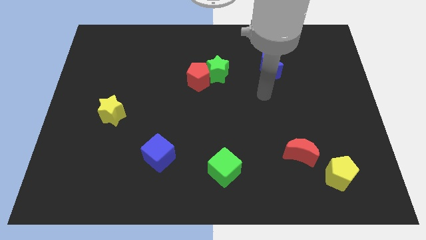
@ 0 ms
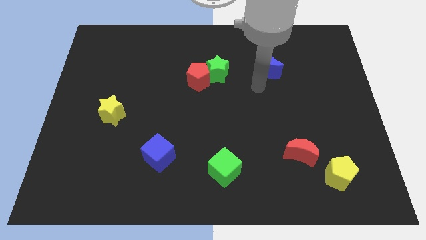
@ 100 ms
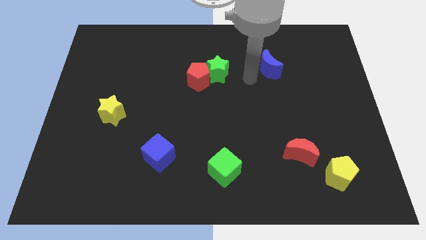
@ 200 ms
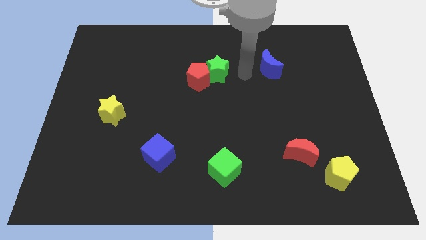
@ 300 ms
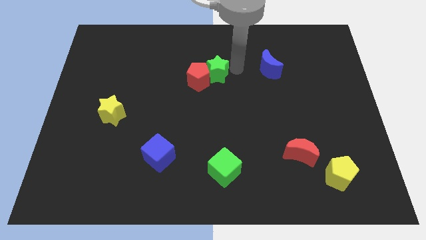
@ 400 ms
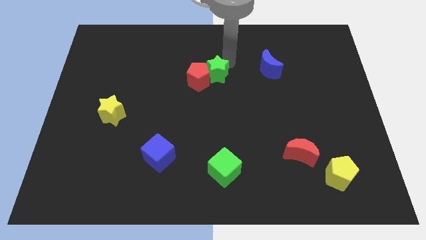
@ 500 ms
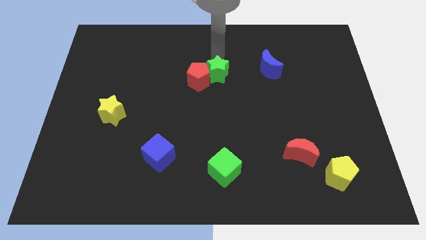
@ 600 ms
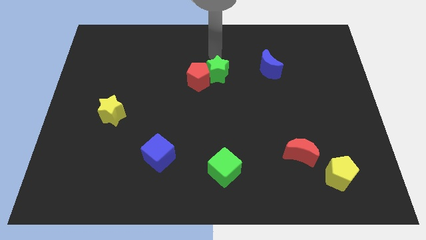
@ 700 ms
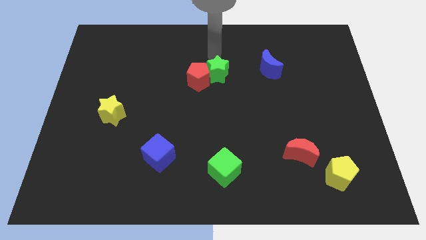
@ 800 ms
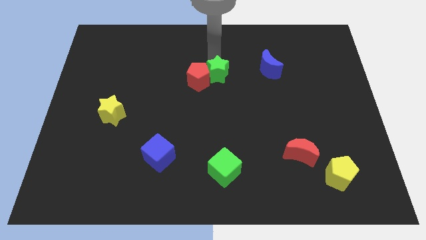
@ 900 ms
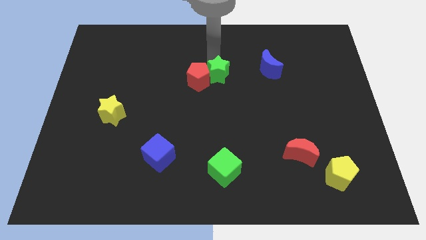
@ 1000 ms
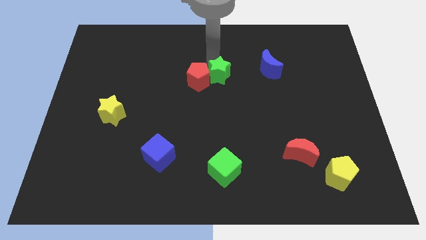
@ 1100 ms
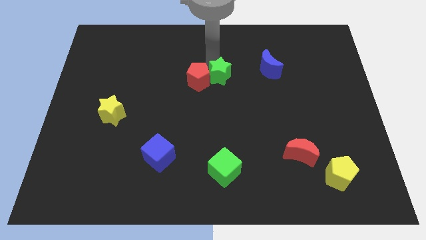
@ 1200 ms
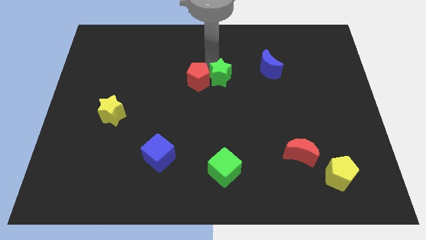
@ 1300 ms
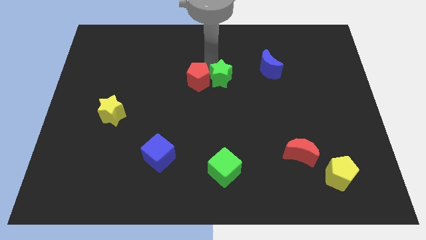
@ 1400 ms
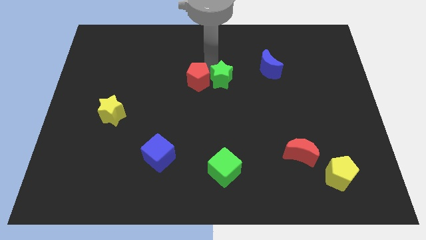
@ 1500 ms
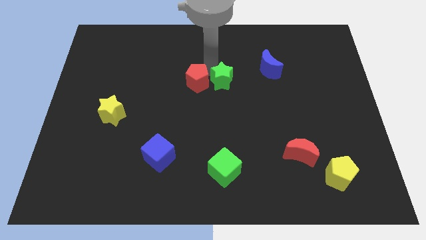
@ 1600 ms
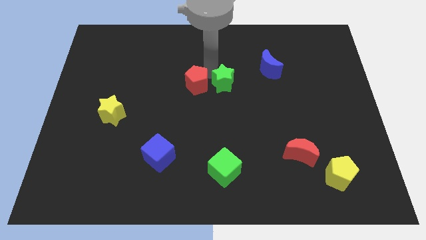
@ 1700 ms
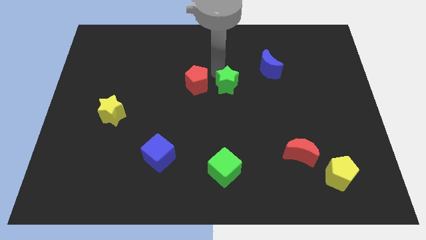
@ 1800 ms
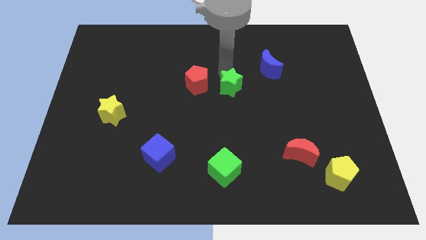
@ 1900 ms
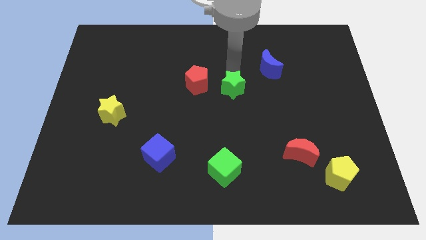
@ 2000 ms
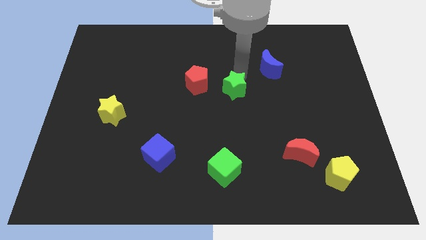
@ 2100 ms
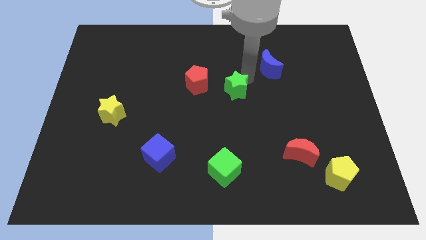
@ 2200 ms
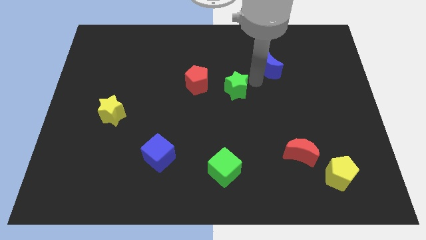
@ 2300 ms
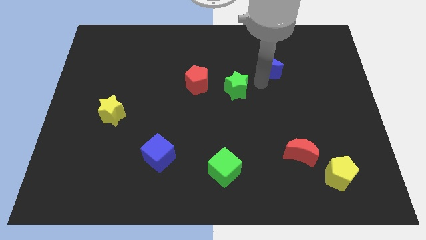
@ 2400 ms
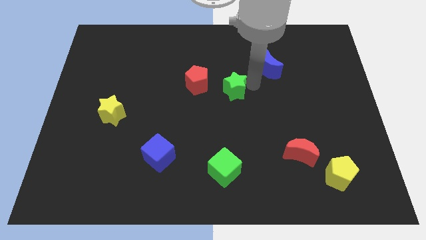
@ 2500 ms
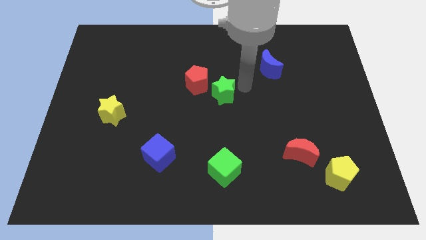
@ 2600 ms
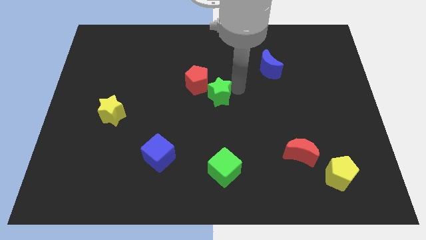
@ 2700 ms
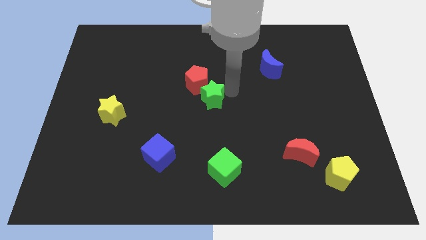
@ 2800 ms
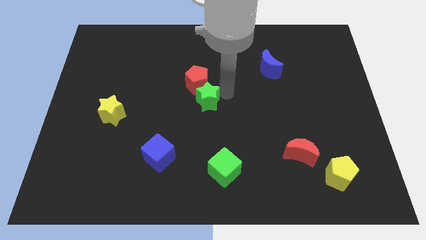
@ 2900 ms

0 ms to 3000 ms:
slide the green star down and then to the left slightly

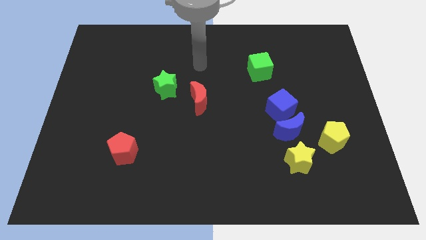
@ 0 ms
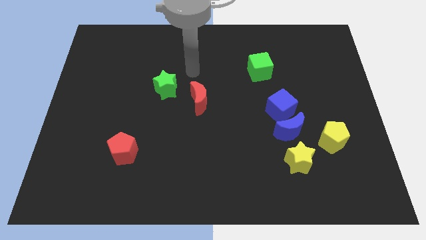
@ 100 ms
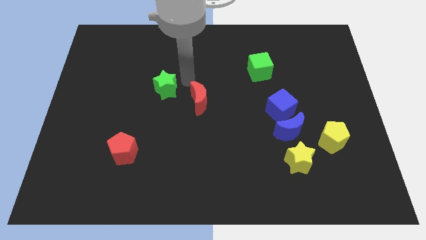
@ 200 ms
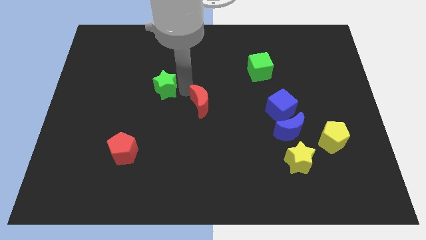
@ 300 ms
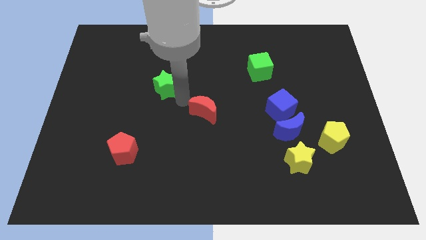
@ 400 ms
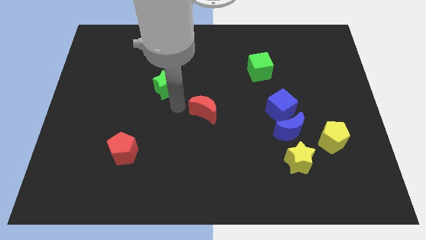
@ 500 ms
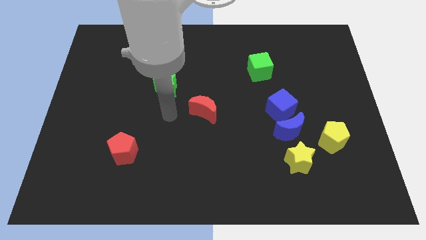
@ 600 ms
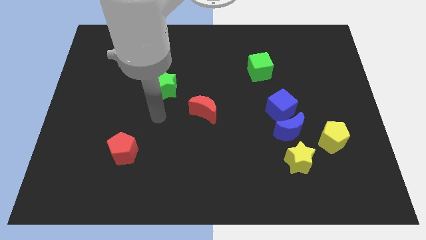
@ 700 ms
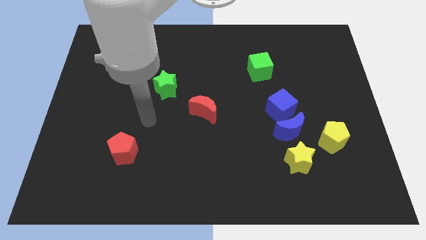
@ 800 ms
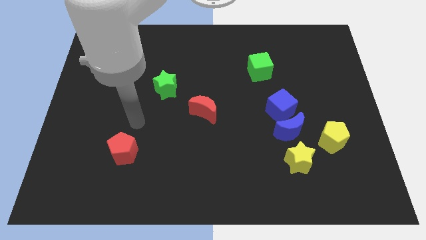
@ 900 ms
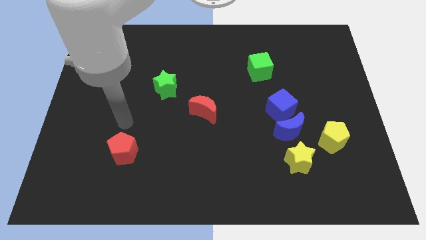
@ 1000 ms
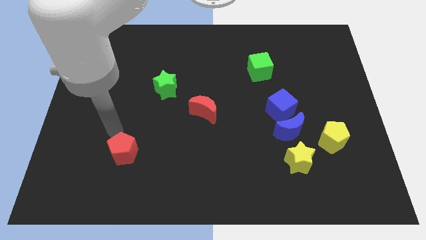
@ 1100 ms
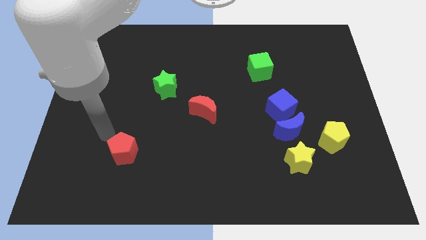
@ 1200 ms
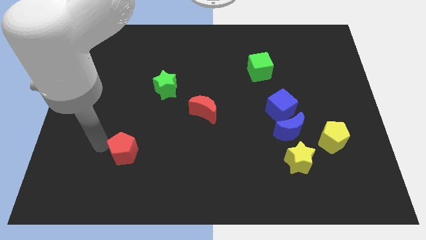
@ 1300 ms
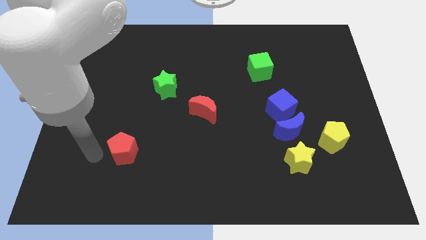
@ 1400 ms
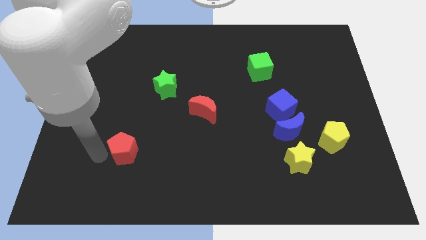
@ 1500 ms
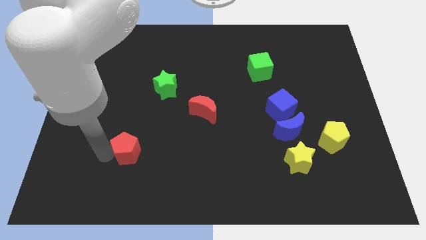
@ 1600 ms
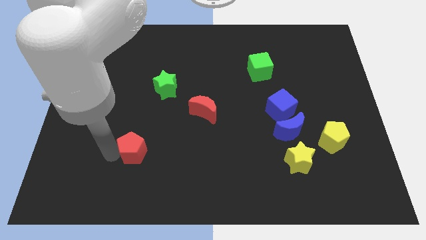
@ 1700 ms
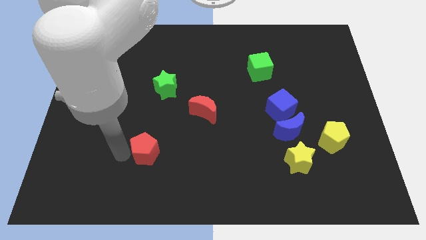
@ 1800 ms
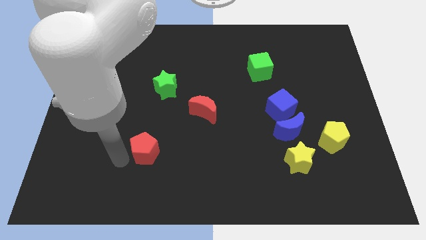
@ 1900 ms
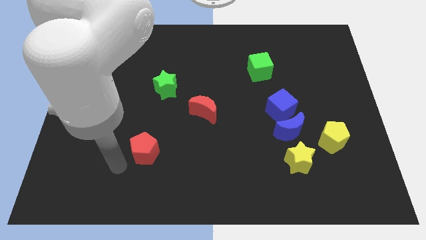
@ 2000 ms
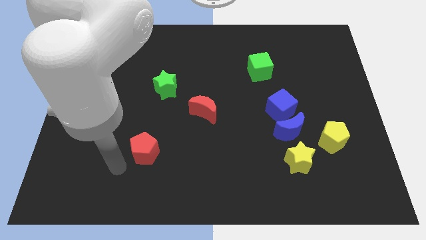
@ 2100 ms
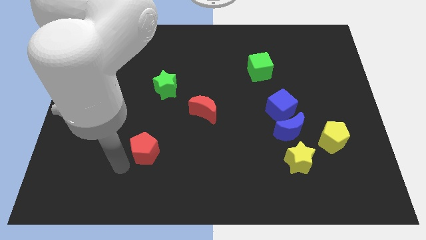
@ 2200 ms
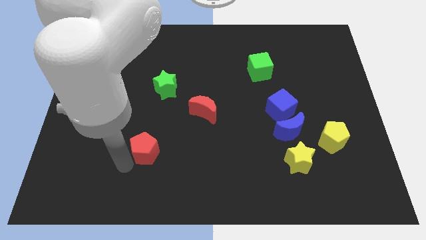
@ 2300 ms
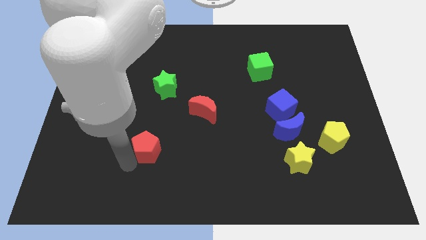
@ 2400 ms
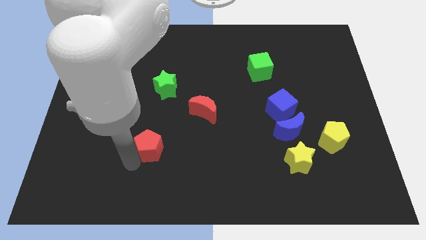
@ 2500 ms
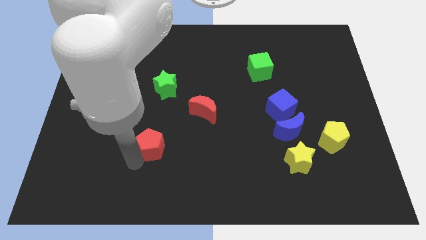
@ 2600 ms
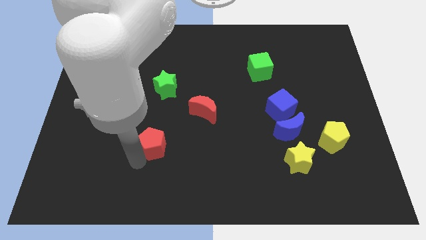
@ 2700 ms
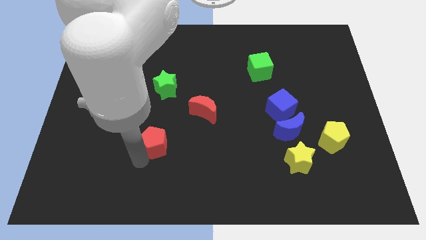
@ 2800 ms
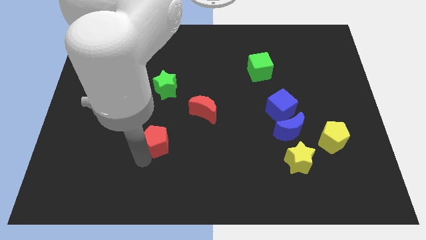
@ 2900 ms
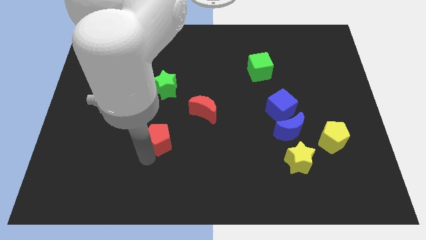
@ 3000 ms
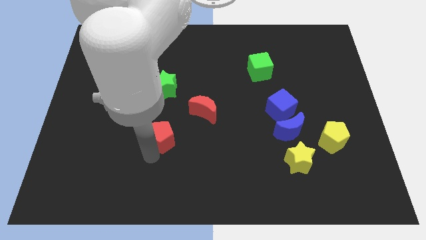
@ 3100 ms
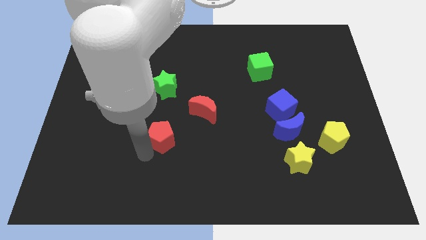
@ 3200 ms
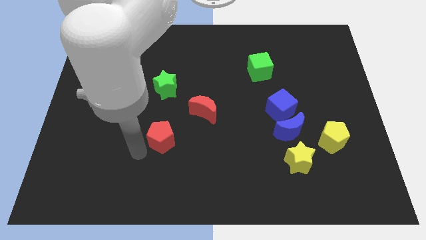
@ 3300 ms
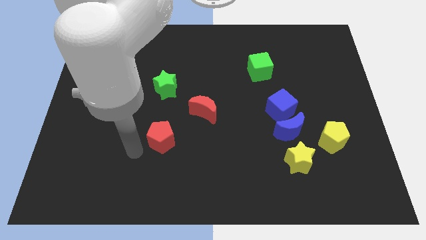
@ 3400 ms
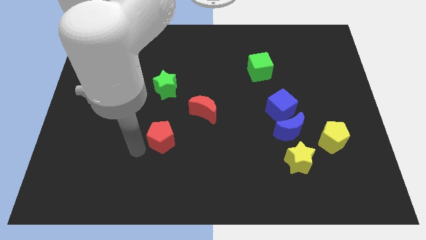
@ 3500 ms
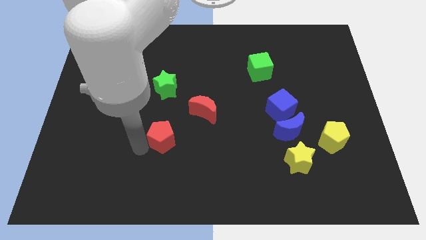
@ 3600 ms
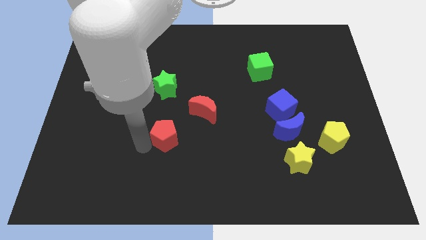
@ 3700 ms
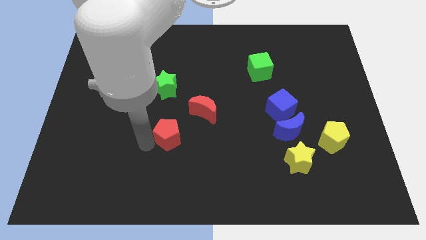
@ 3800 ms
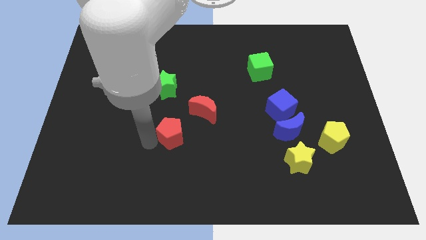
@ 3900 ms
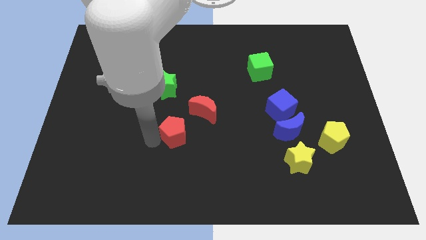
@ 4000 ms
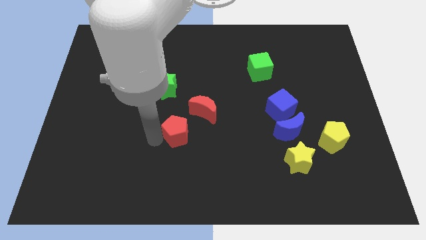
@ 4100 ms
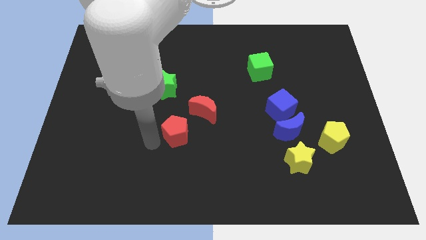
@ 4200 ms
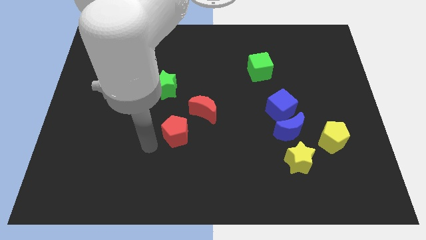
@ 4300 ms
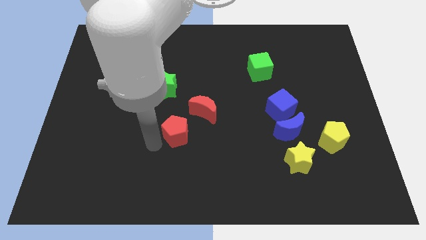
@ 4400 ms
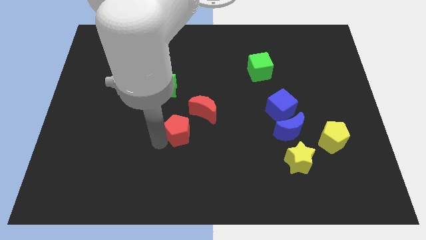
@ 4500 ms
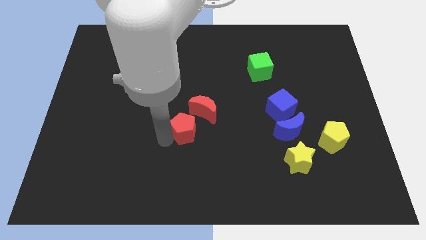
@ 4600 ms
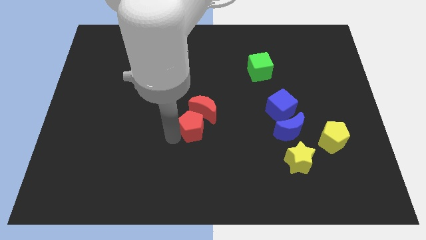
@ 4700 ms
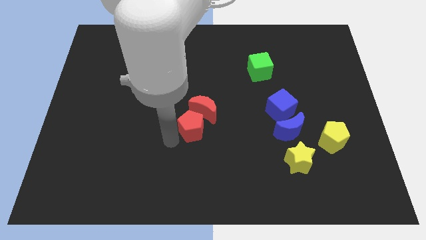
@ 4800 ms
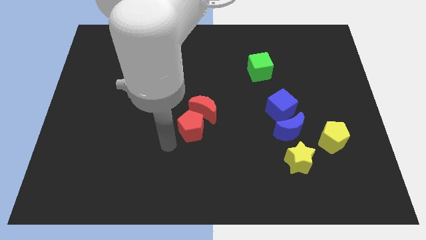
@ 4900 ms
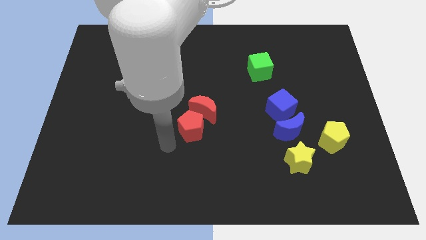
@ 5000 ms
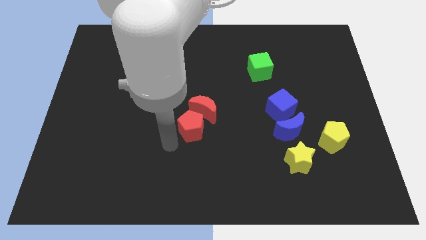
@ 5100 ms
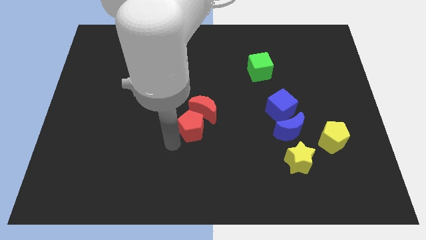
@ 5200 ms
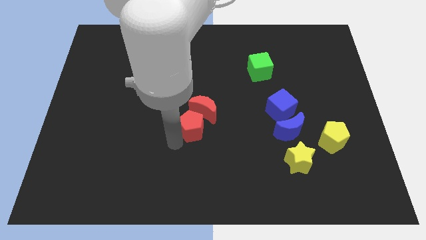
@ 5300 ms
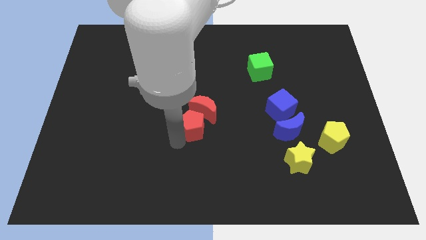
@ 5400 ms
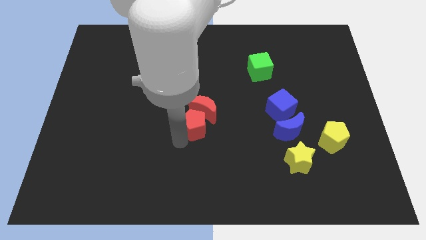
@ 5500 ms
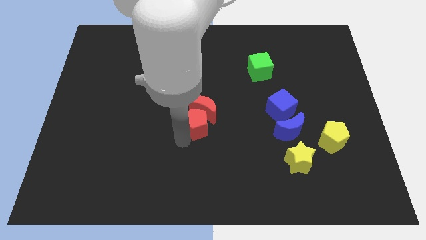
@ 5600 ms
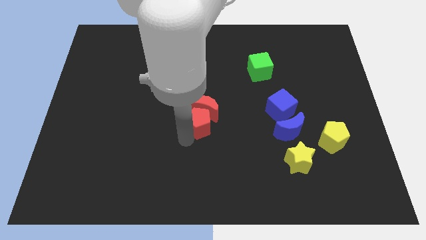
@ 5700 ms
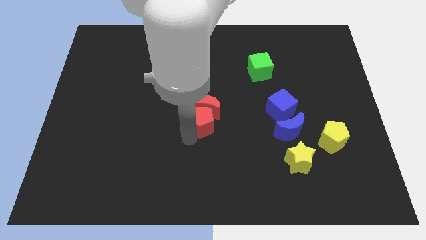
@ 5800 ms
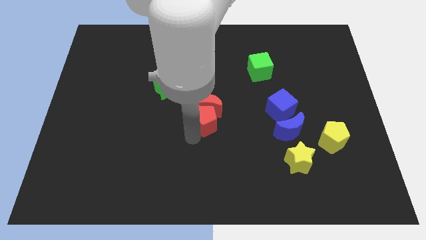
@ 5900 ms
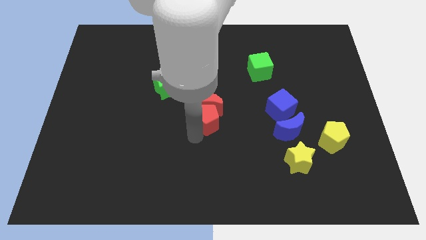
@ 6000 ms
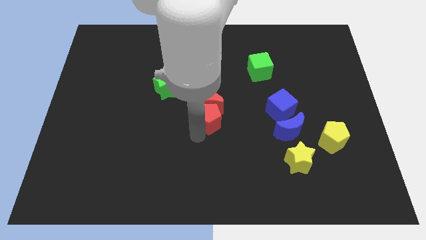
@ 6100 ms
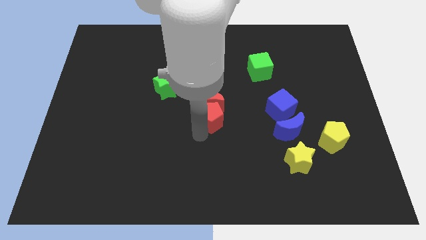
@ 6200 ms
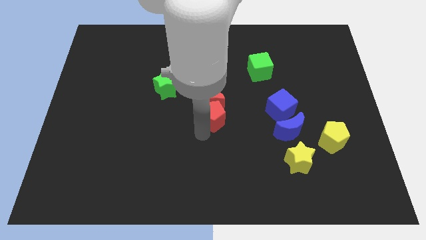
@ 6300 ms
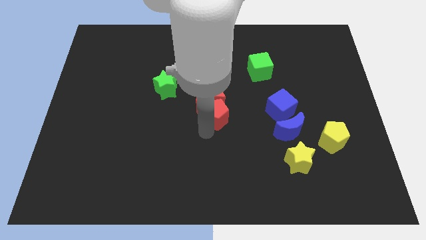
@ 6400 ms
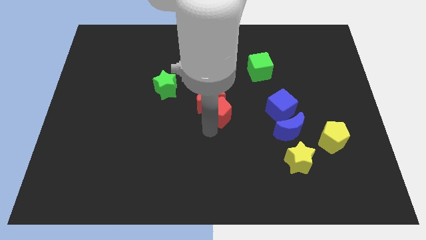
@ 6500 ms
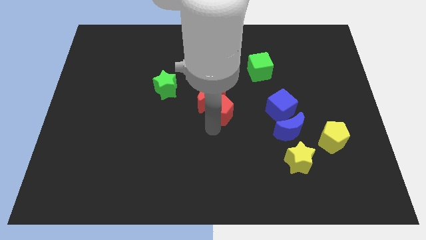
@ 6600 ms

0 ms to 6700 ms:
push the red pentagon upwards and right
